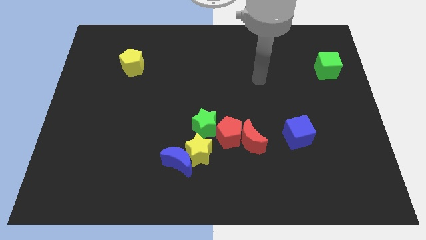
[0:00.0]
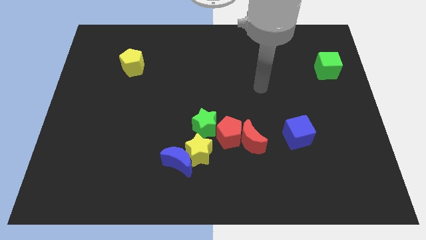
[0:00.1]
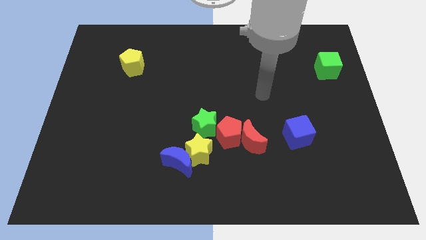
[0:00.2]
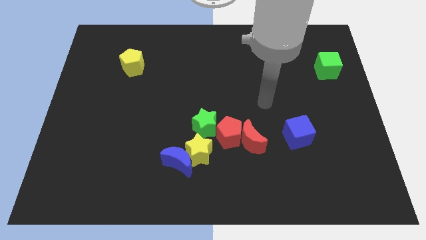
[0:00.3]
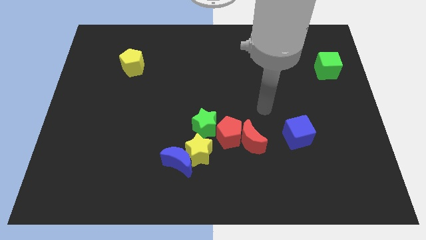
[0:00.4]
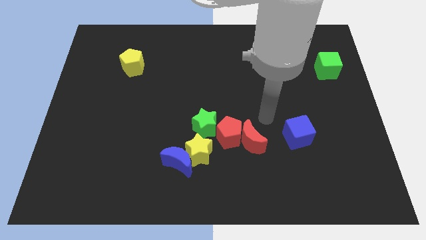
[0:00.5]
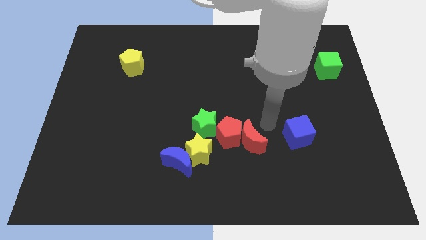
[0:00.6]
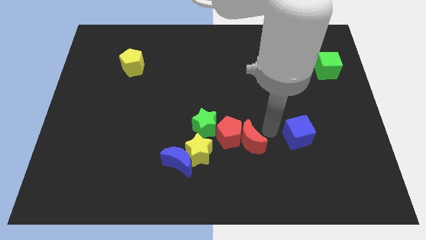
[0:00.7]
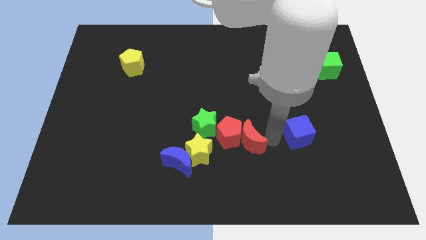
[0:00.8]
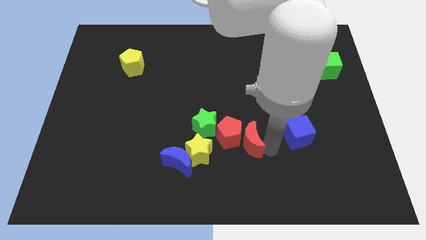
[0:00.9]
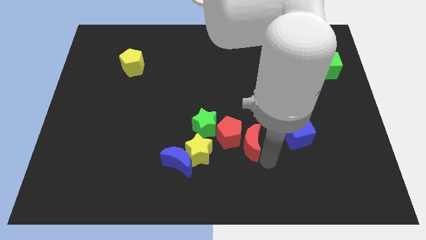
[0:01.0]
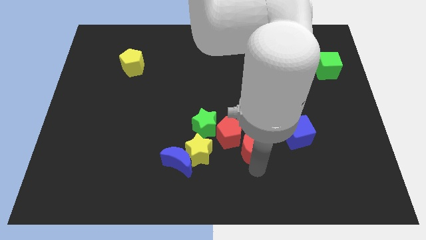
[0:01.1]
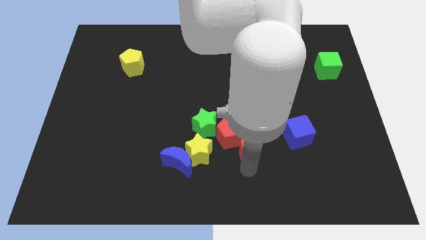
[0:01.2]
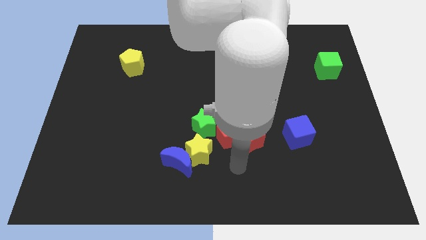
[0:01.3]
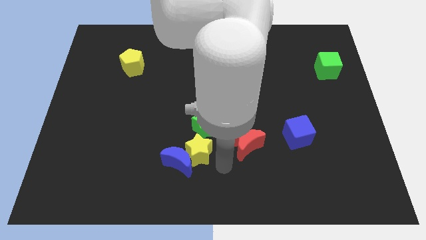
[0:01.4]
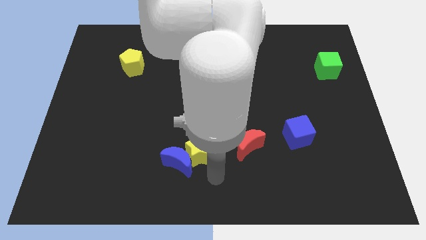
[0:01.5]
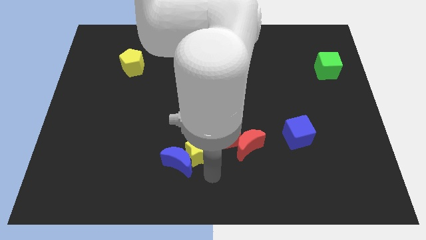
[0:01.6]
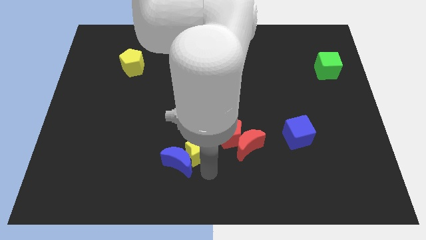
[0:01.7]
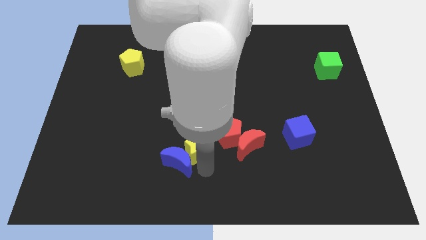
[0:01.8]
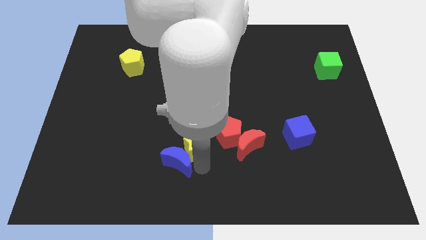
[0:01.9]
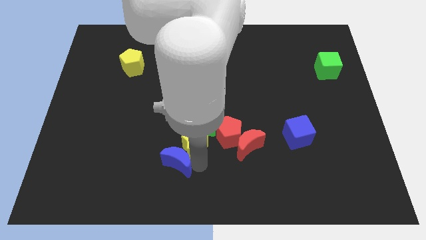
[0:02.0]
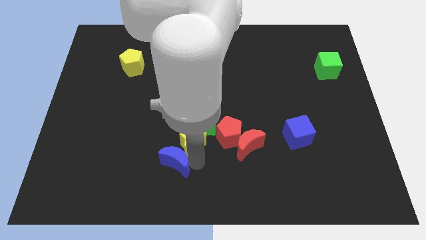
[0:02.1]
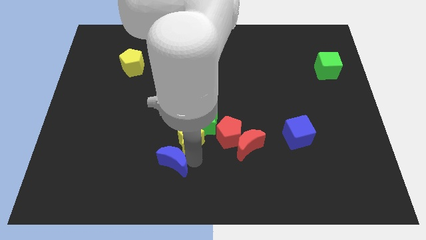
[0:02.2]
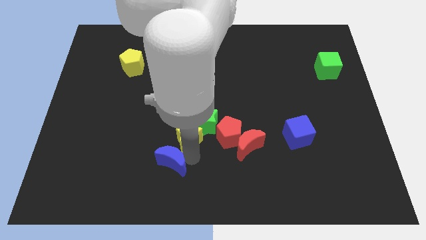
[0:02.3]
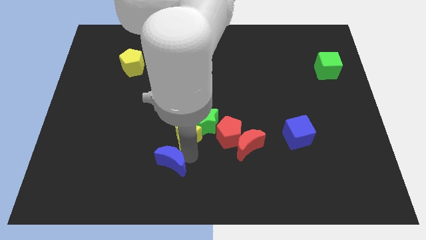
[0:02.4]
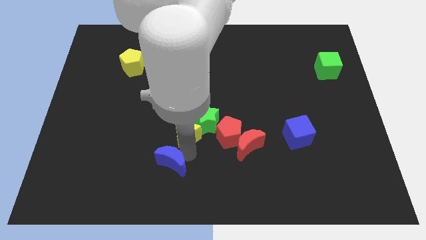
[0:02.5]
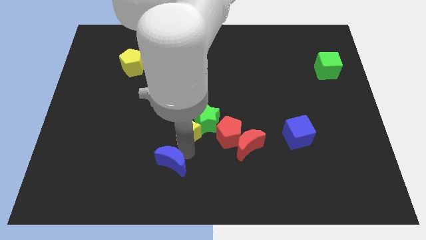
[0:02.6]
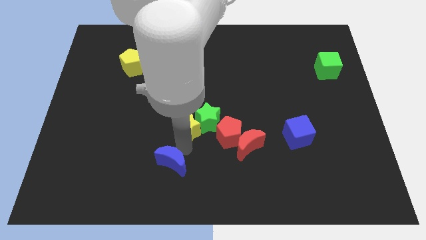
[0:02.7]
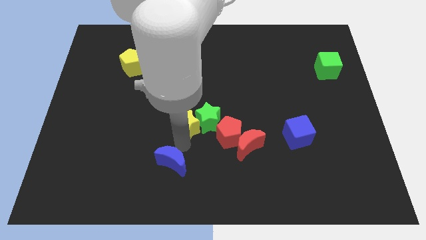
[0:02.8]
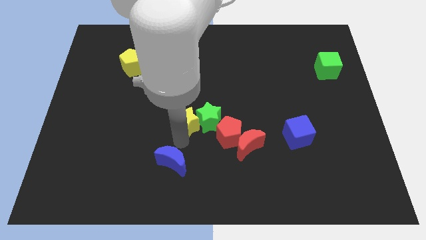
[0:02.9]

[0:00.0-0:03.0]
slide the yellow star up a little bit

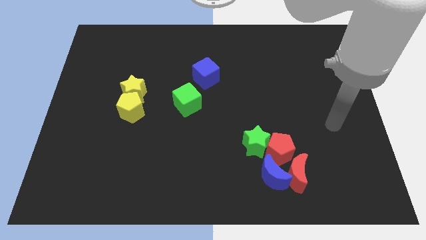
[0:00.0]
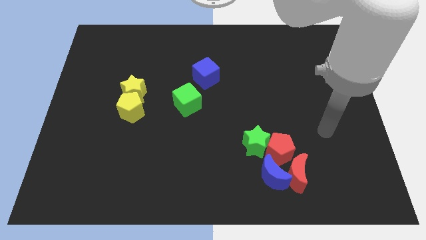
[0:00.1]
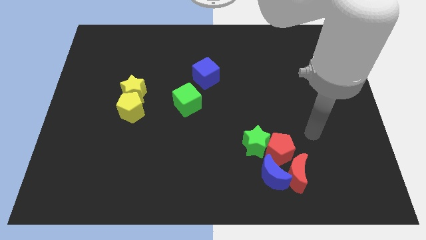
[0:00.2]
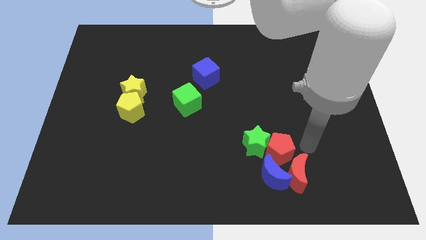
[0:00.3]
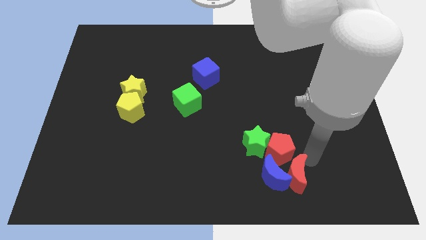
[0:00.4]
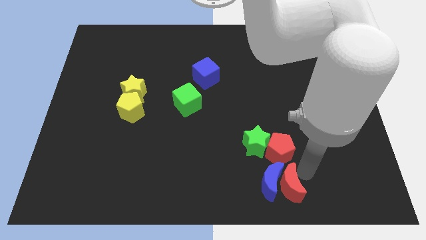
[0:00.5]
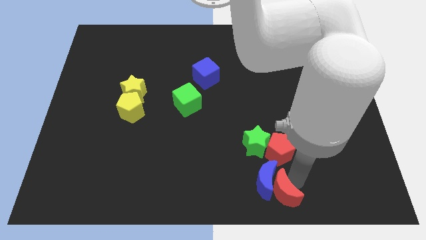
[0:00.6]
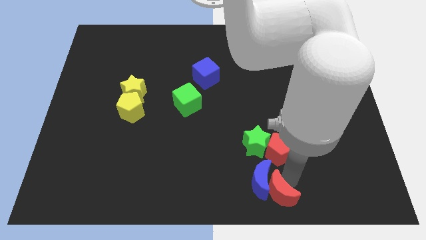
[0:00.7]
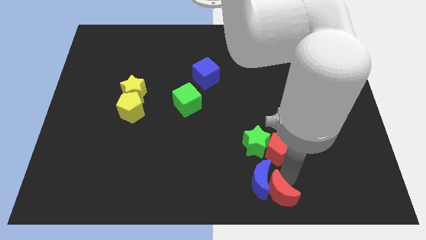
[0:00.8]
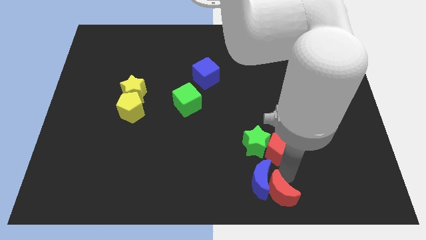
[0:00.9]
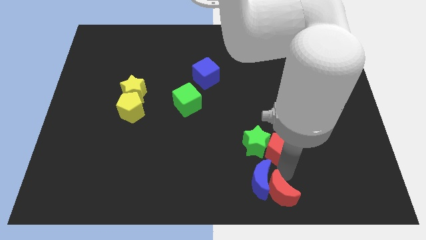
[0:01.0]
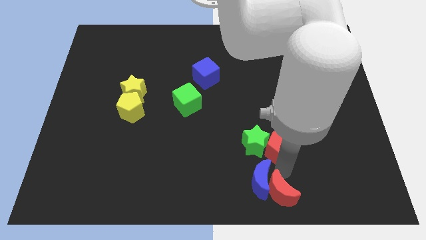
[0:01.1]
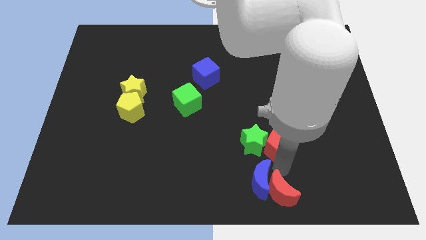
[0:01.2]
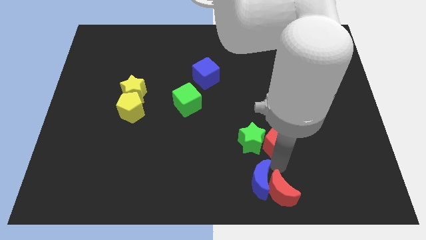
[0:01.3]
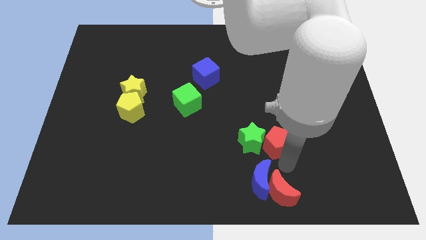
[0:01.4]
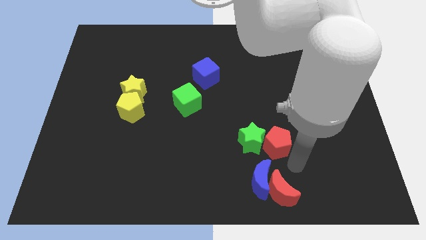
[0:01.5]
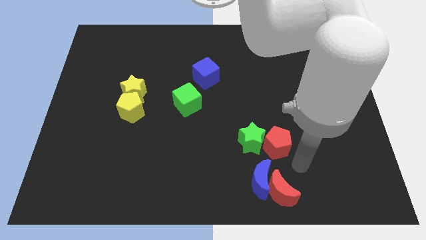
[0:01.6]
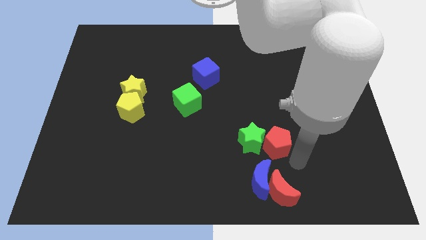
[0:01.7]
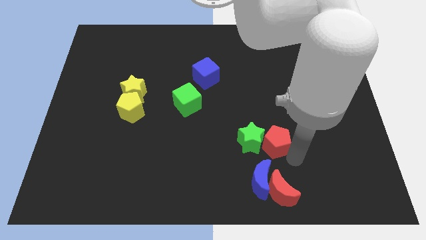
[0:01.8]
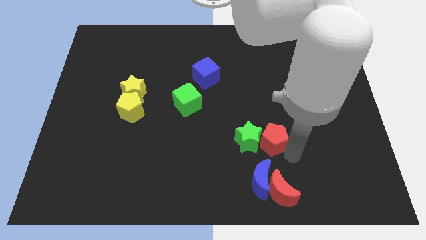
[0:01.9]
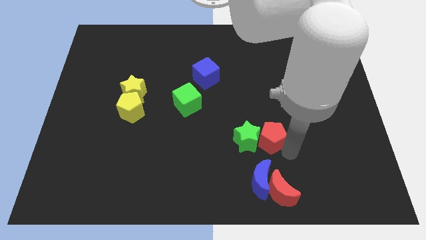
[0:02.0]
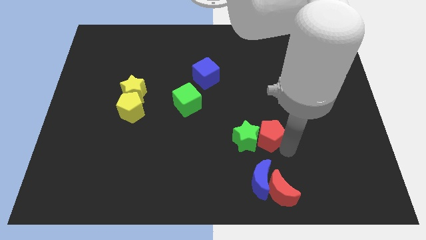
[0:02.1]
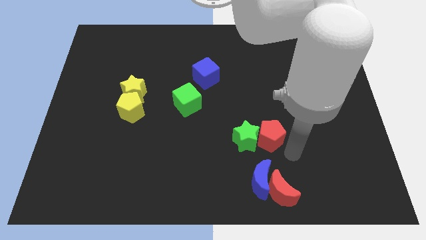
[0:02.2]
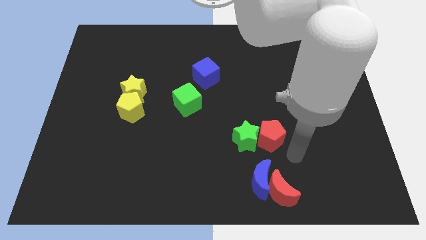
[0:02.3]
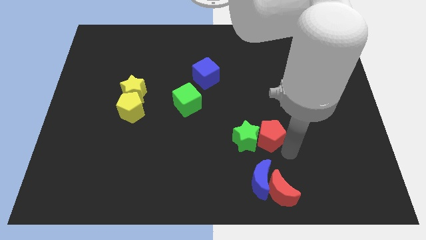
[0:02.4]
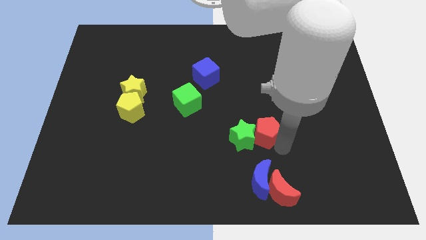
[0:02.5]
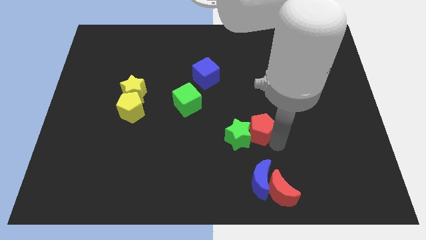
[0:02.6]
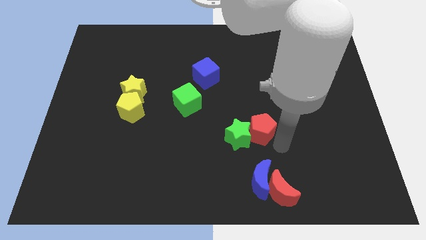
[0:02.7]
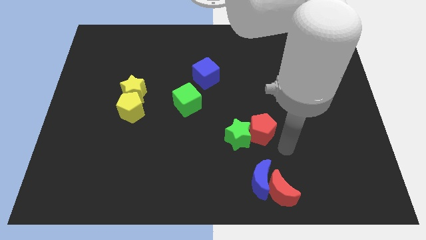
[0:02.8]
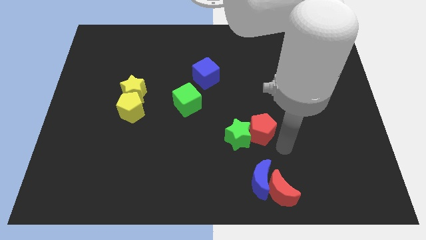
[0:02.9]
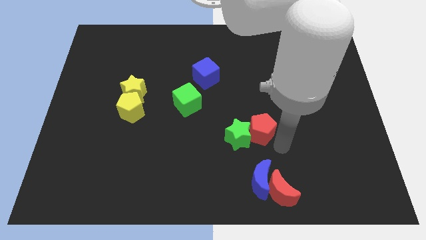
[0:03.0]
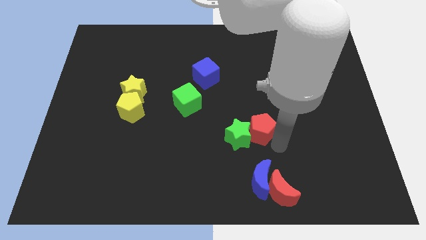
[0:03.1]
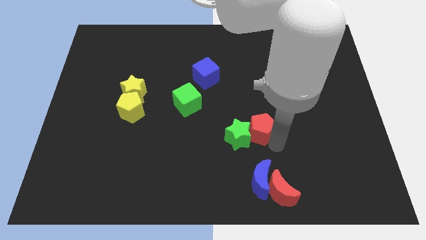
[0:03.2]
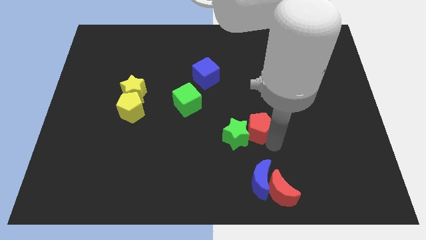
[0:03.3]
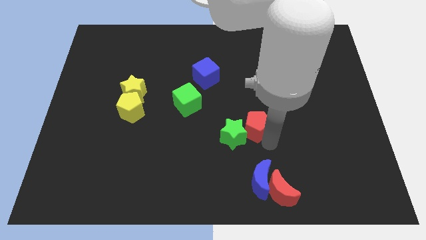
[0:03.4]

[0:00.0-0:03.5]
slightly slide the red pentagon up and left

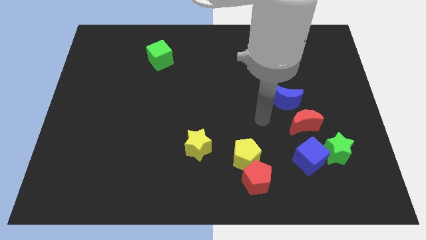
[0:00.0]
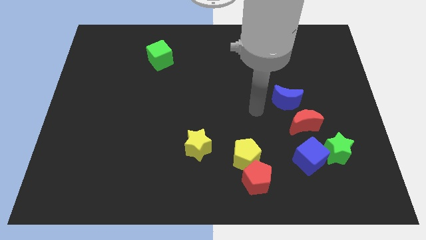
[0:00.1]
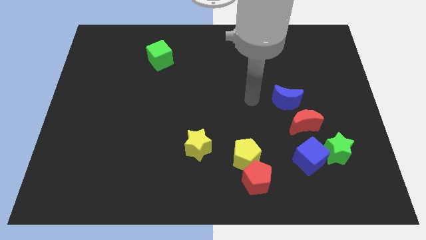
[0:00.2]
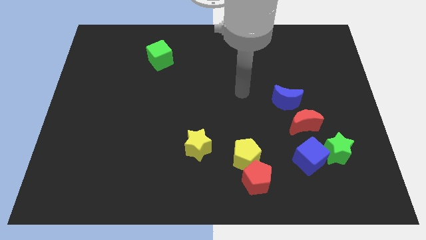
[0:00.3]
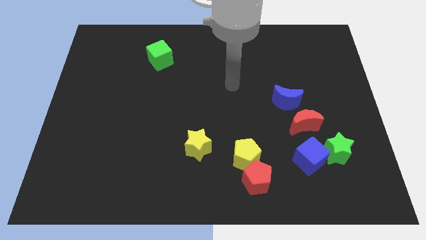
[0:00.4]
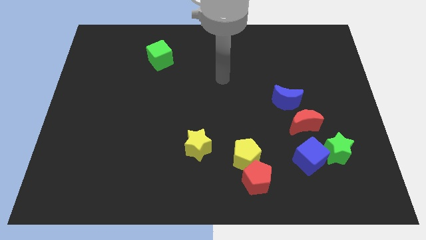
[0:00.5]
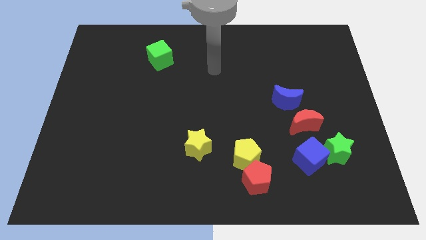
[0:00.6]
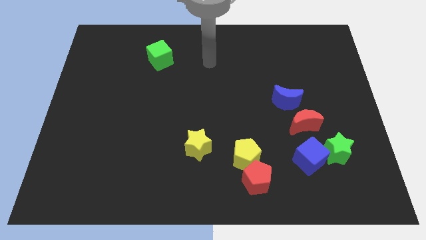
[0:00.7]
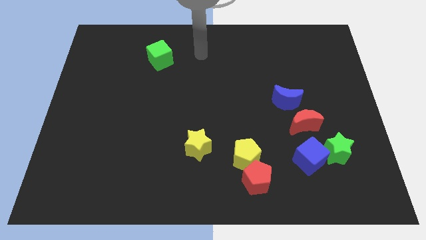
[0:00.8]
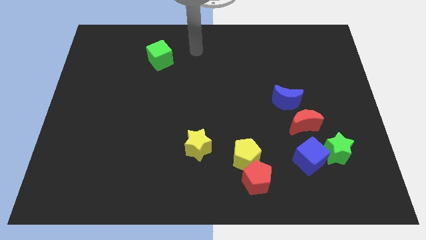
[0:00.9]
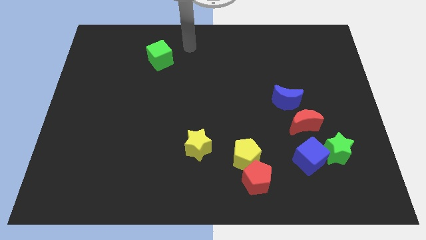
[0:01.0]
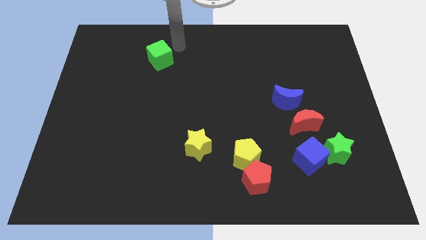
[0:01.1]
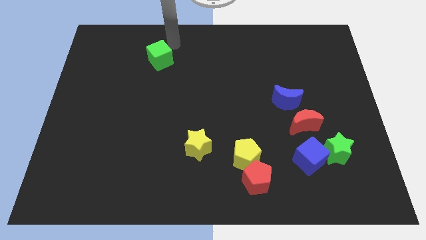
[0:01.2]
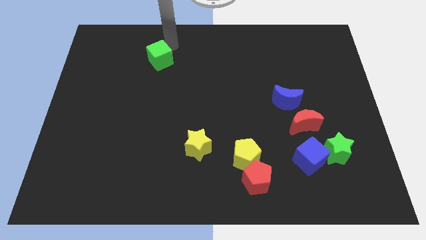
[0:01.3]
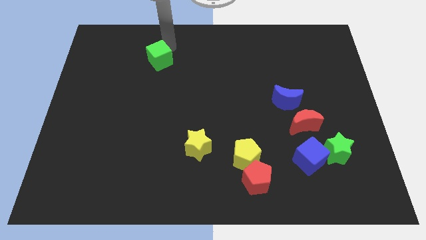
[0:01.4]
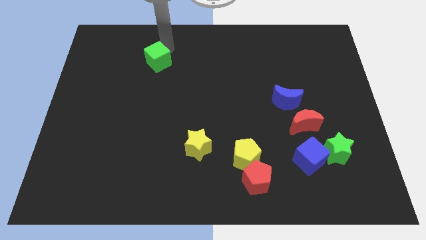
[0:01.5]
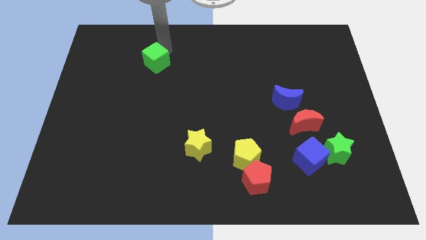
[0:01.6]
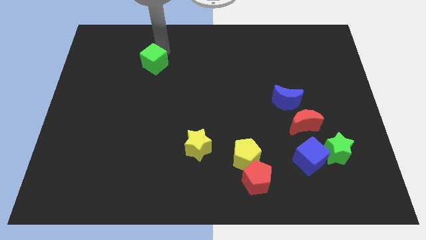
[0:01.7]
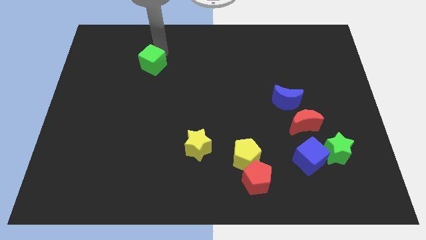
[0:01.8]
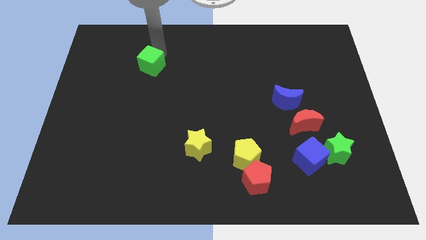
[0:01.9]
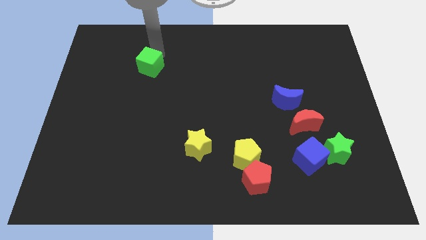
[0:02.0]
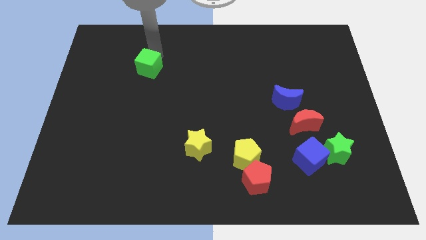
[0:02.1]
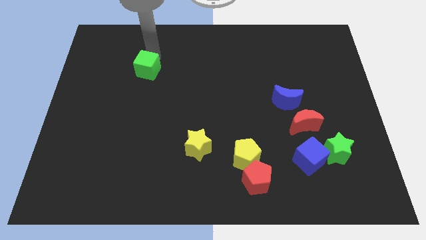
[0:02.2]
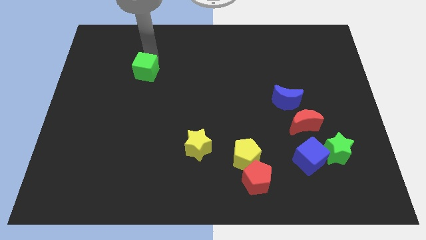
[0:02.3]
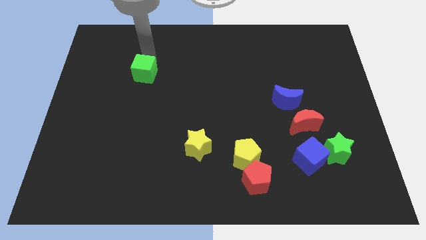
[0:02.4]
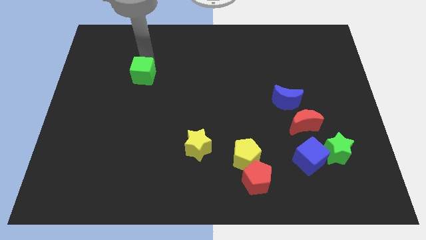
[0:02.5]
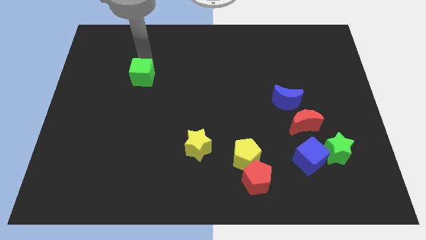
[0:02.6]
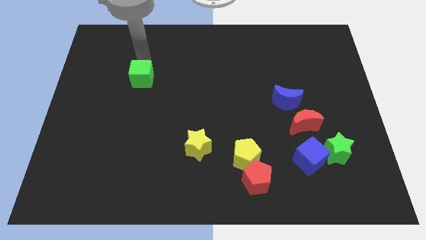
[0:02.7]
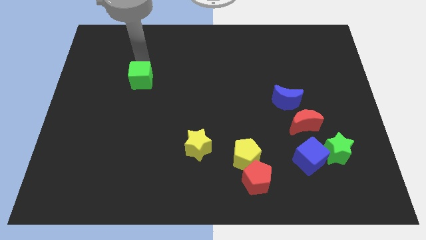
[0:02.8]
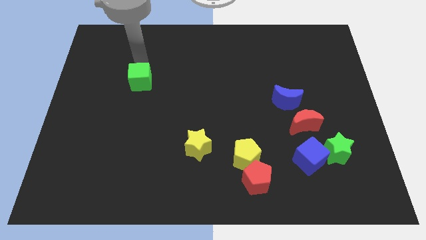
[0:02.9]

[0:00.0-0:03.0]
slightly move the green cube down
